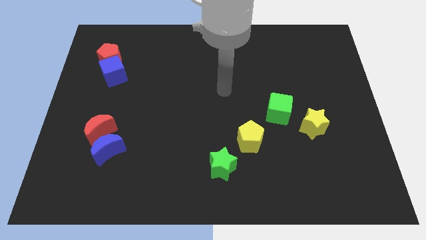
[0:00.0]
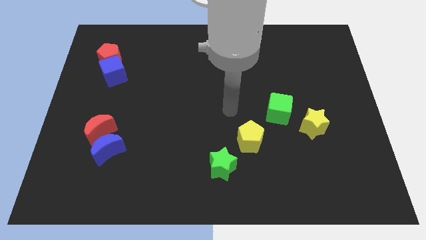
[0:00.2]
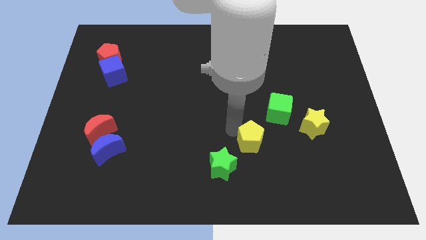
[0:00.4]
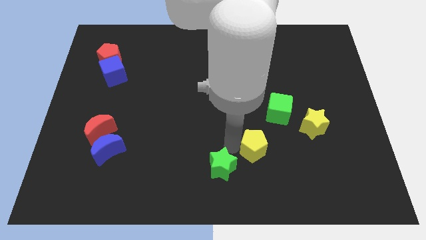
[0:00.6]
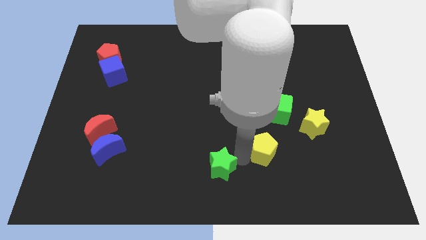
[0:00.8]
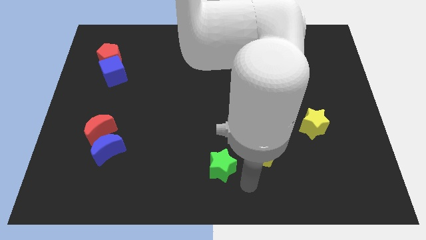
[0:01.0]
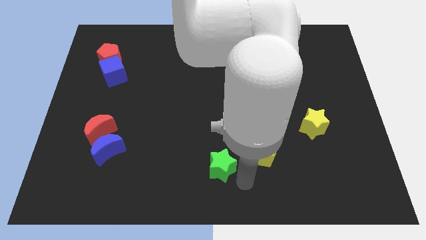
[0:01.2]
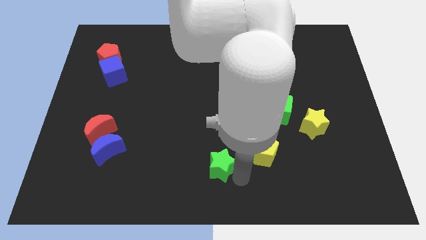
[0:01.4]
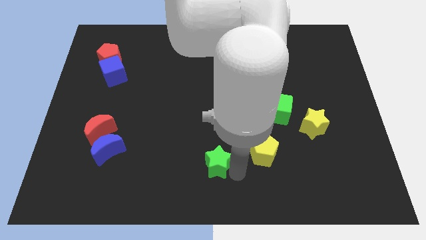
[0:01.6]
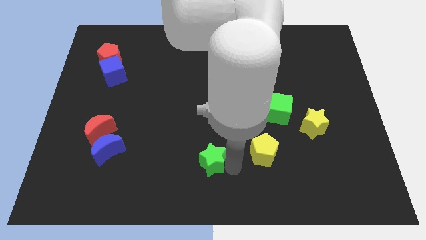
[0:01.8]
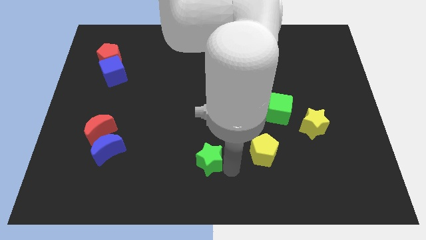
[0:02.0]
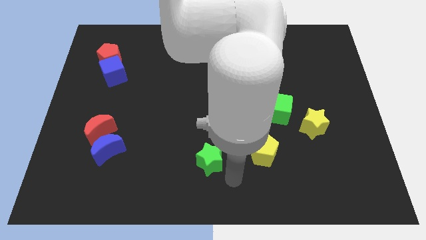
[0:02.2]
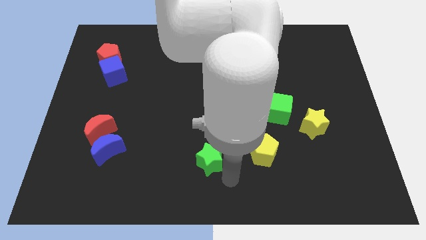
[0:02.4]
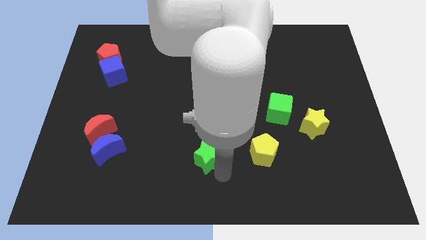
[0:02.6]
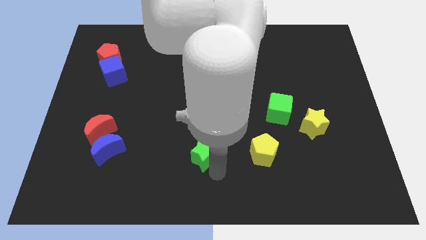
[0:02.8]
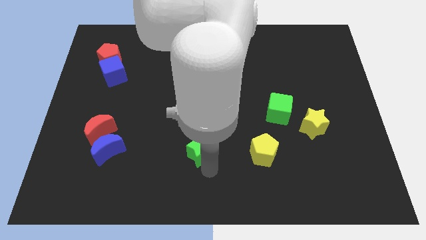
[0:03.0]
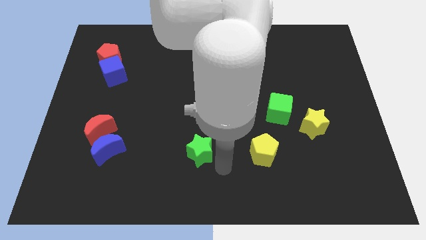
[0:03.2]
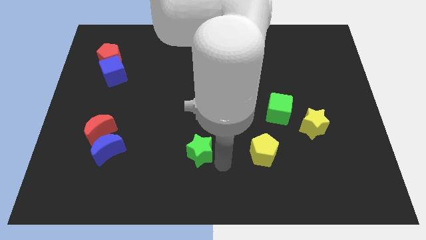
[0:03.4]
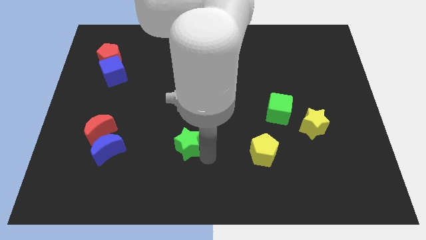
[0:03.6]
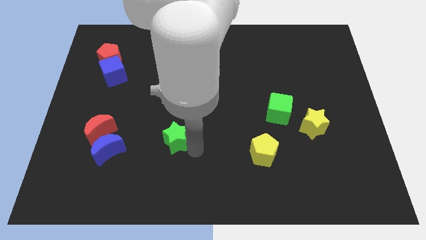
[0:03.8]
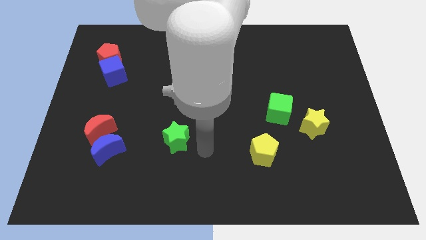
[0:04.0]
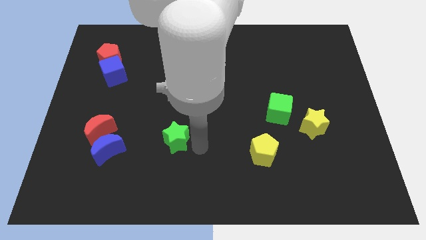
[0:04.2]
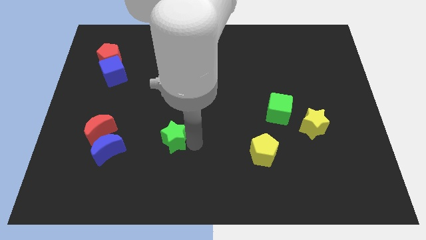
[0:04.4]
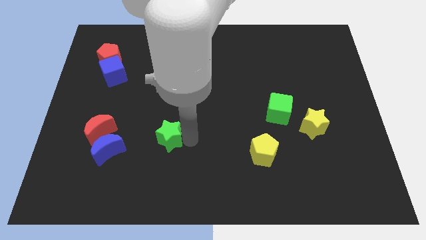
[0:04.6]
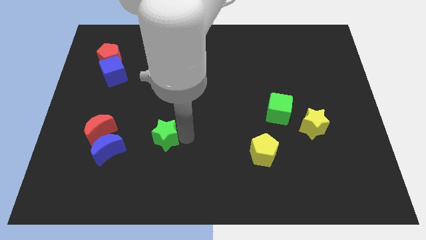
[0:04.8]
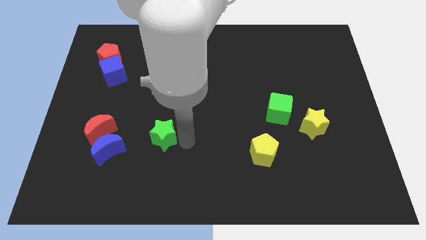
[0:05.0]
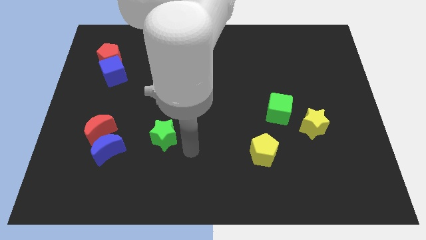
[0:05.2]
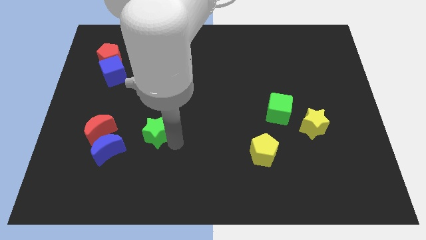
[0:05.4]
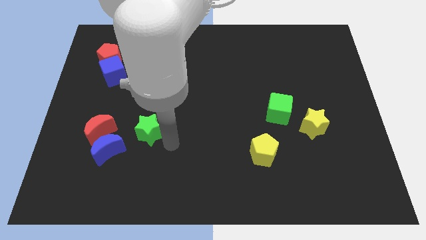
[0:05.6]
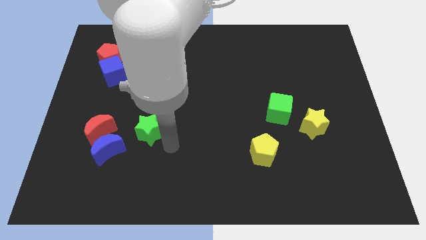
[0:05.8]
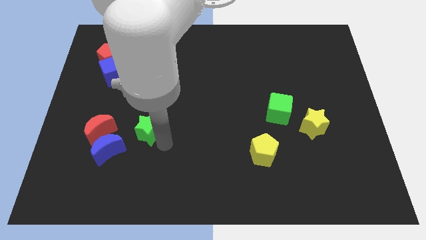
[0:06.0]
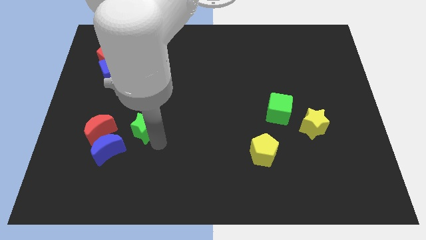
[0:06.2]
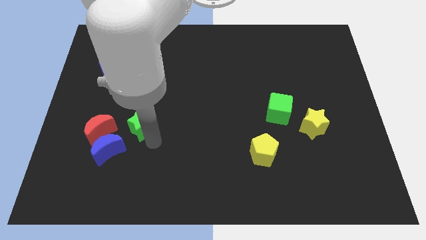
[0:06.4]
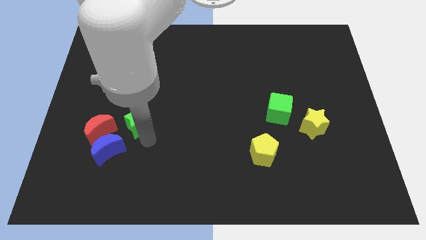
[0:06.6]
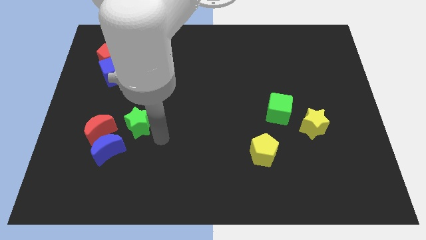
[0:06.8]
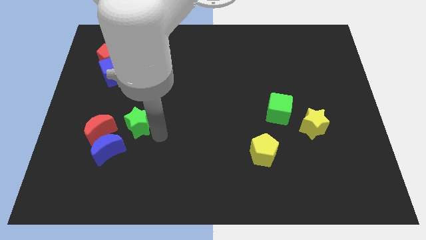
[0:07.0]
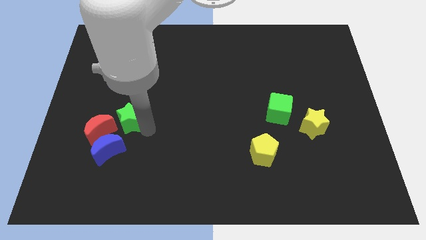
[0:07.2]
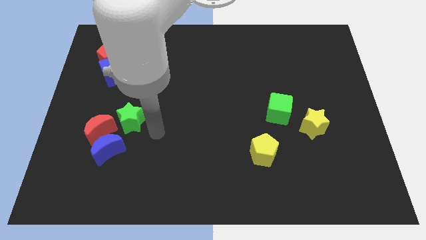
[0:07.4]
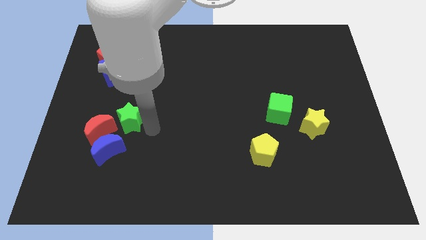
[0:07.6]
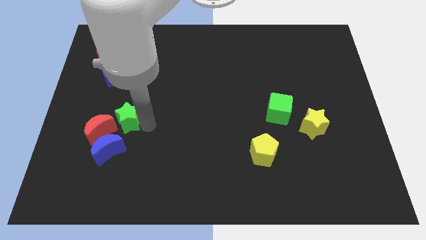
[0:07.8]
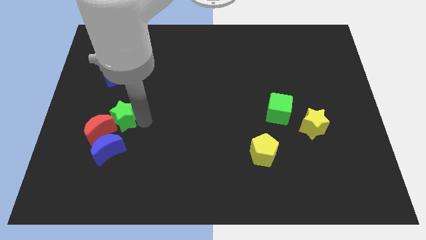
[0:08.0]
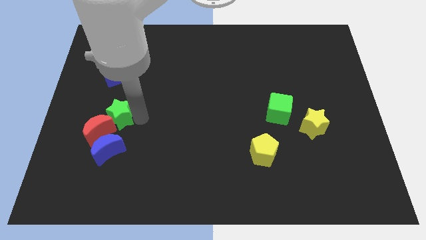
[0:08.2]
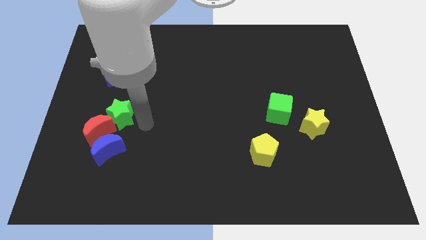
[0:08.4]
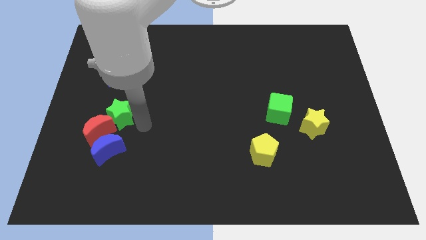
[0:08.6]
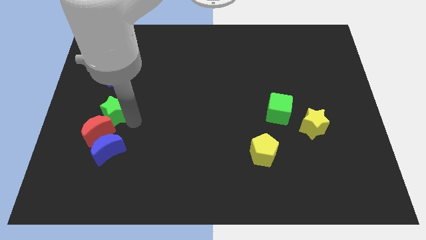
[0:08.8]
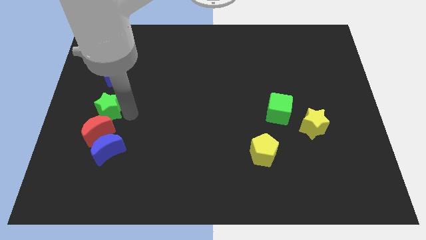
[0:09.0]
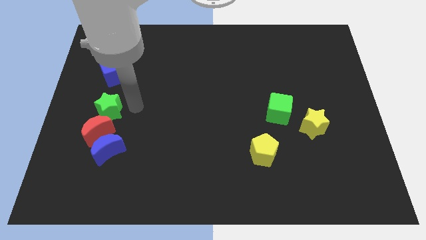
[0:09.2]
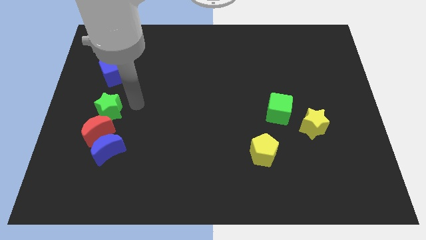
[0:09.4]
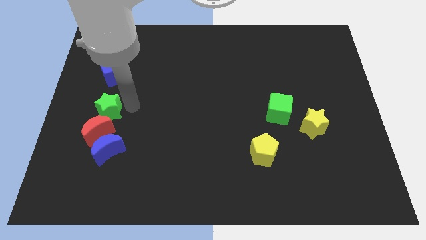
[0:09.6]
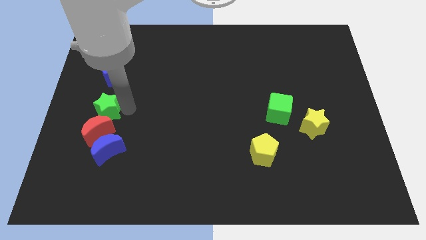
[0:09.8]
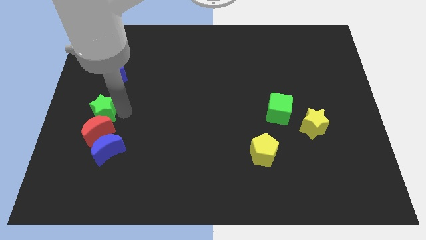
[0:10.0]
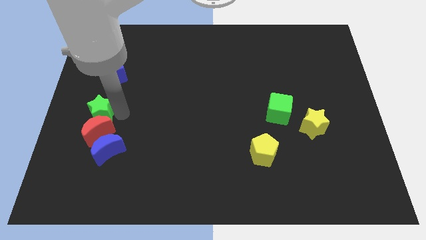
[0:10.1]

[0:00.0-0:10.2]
move the green star to the top left side of the blue moon

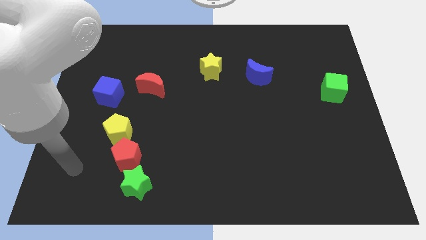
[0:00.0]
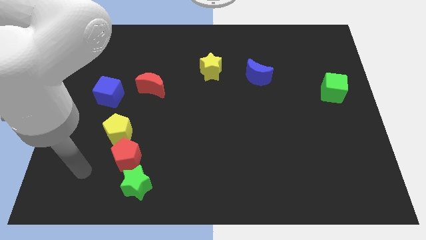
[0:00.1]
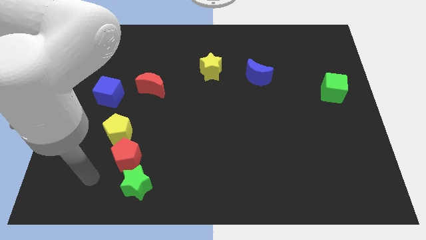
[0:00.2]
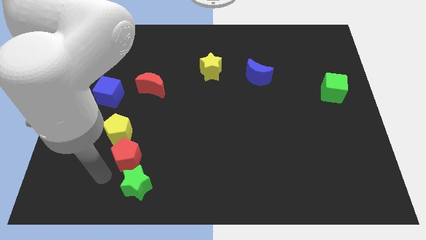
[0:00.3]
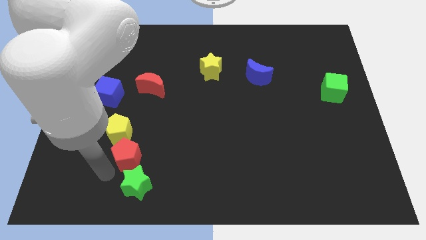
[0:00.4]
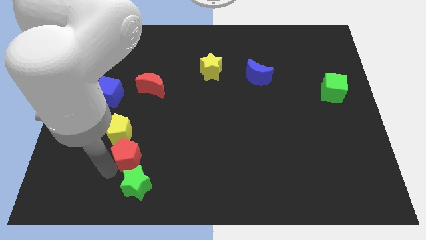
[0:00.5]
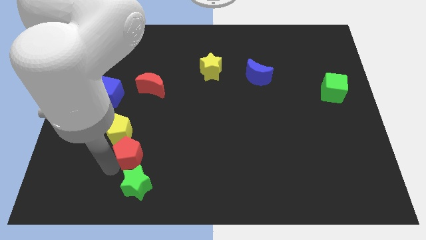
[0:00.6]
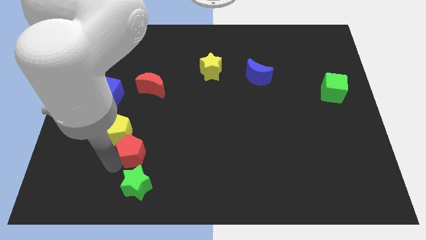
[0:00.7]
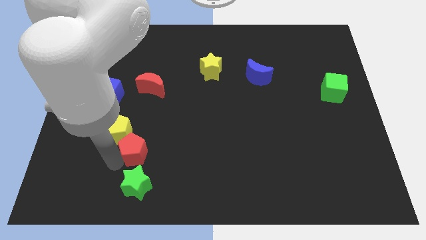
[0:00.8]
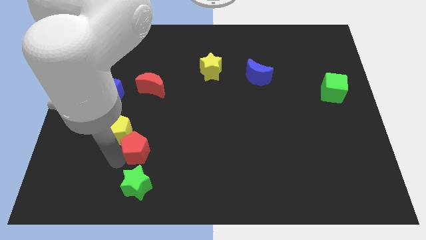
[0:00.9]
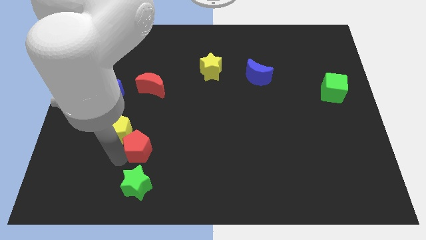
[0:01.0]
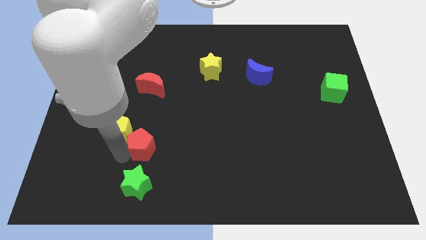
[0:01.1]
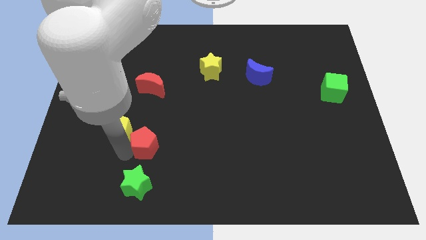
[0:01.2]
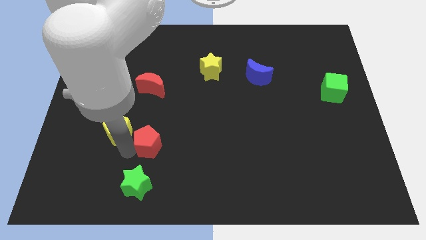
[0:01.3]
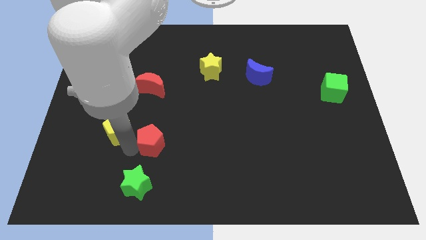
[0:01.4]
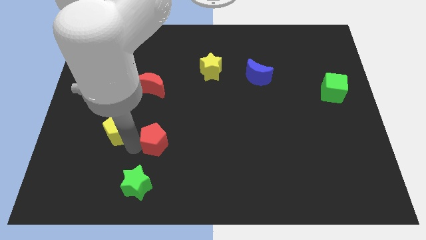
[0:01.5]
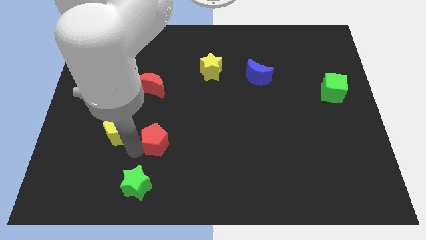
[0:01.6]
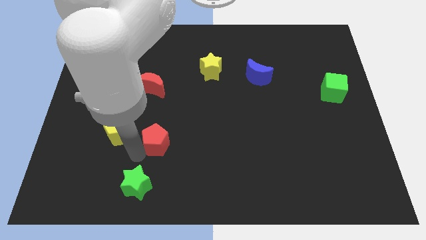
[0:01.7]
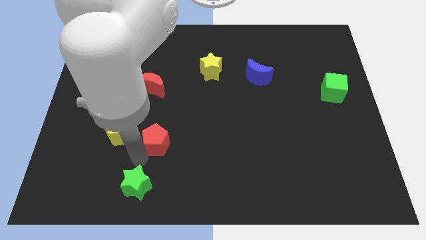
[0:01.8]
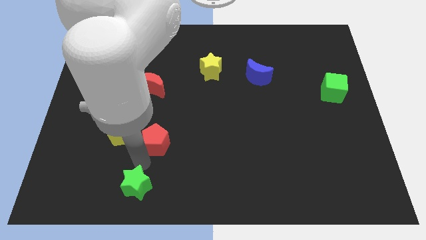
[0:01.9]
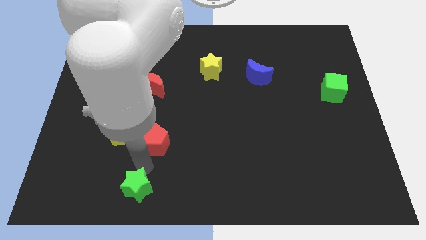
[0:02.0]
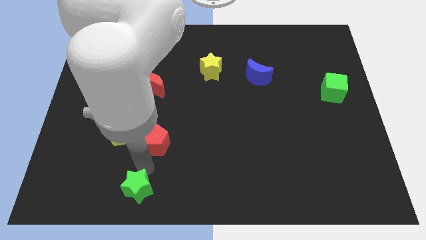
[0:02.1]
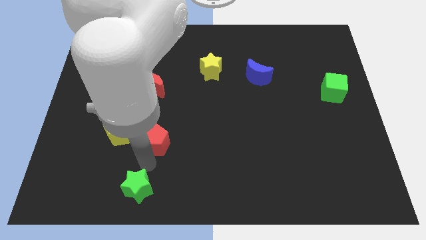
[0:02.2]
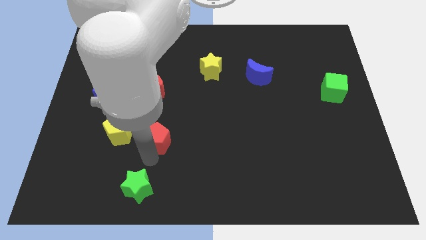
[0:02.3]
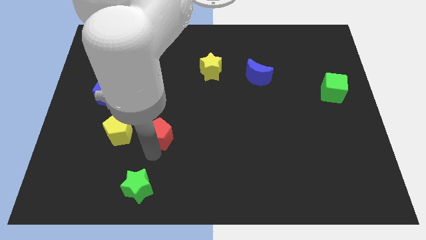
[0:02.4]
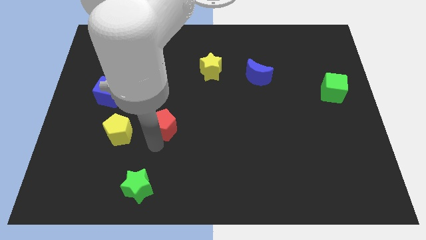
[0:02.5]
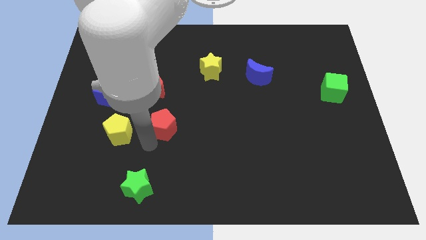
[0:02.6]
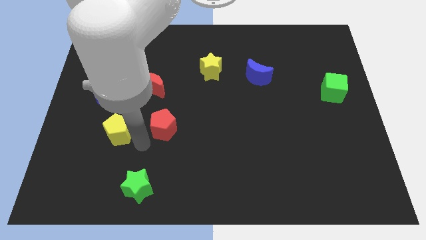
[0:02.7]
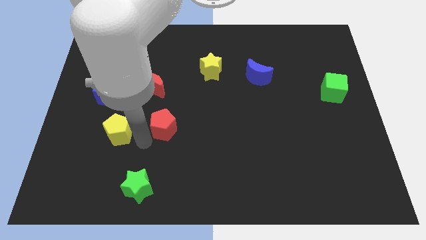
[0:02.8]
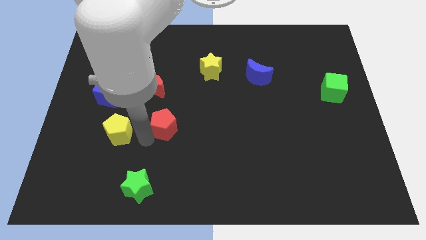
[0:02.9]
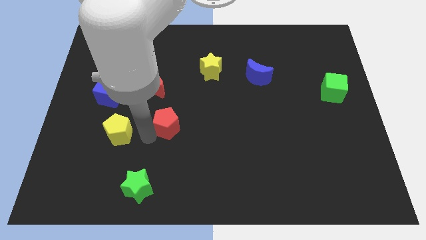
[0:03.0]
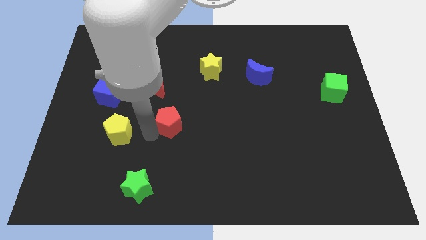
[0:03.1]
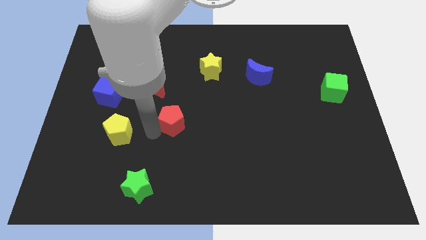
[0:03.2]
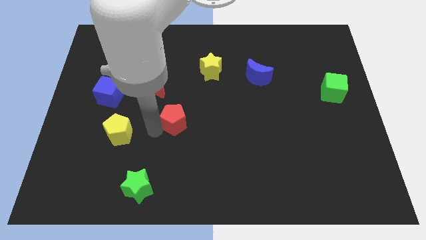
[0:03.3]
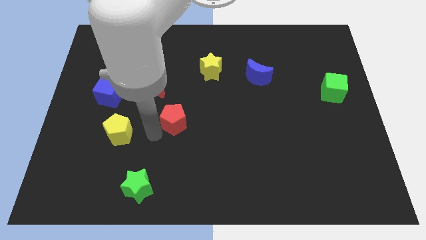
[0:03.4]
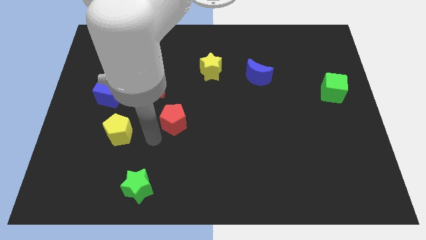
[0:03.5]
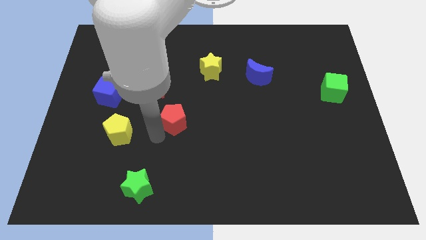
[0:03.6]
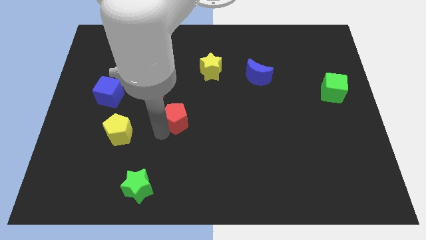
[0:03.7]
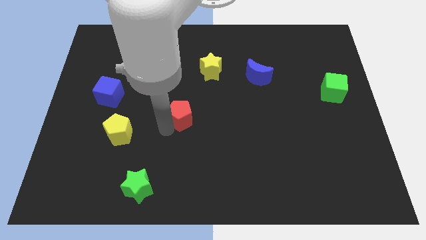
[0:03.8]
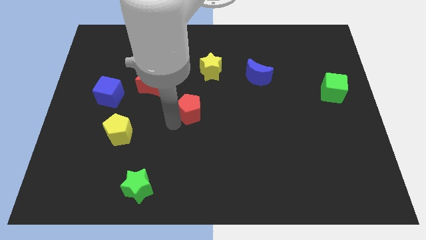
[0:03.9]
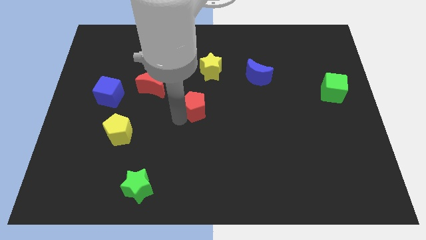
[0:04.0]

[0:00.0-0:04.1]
slide the red pentagon below the yellow star
